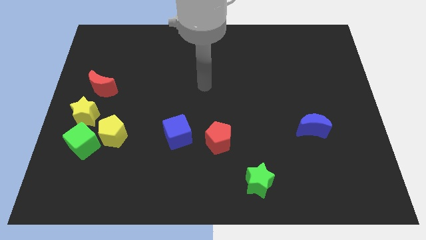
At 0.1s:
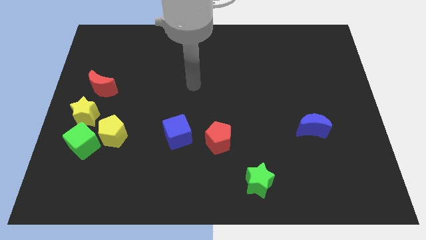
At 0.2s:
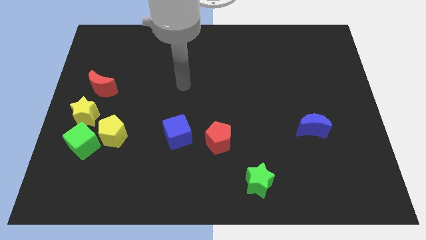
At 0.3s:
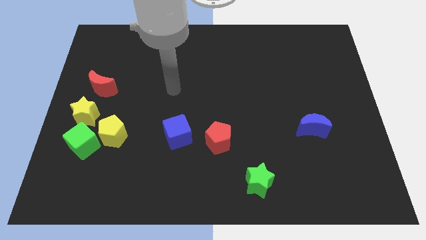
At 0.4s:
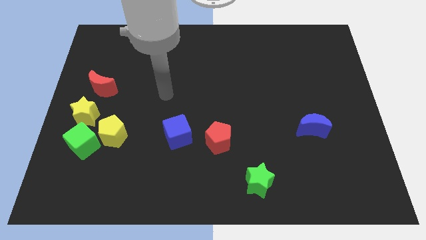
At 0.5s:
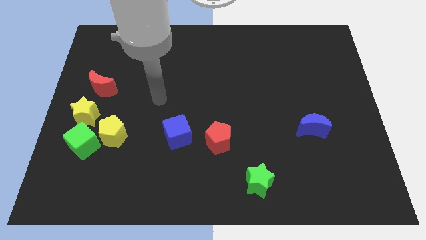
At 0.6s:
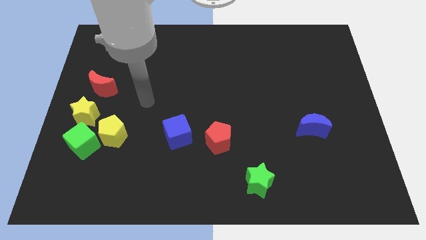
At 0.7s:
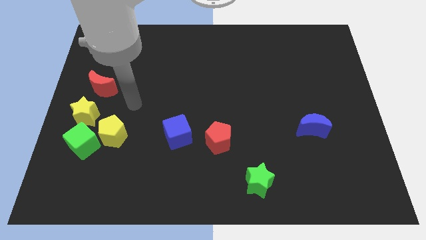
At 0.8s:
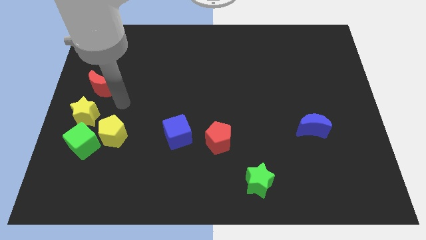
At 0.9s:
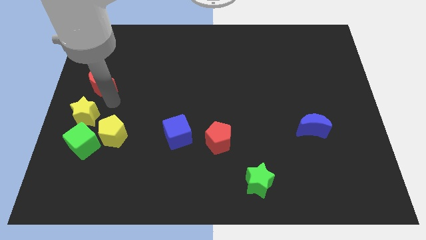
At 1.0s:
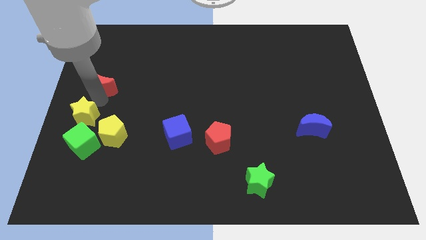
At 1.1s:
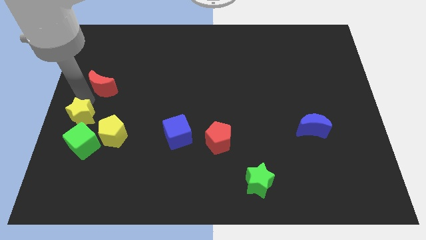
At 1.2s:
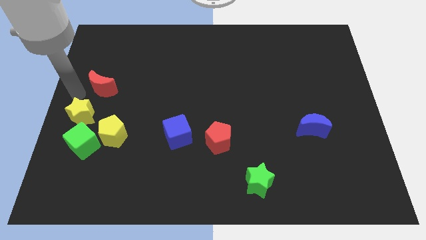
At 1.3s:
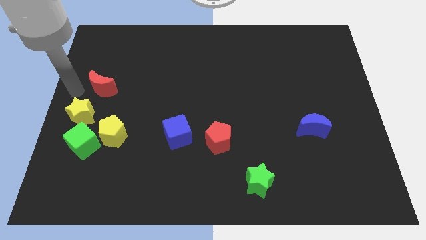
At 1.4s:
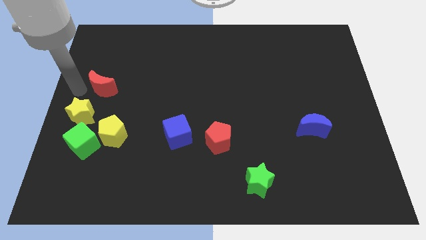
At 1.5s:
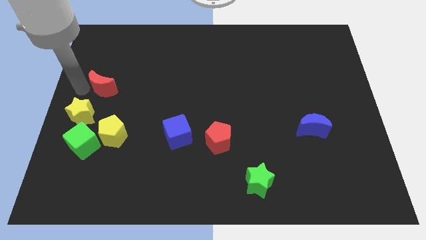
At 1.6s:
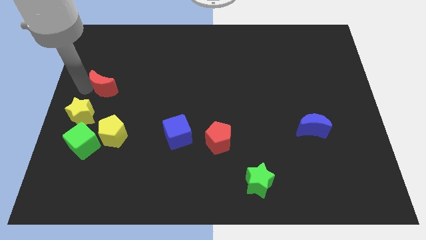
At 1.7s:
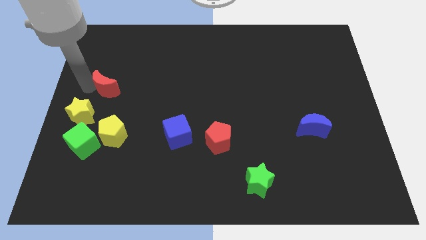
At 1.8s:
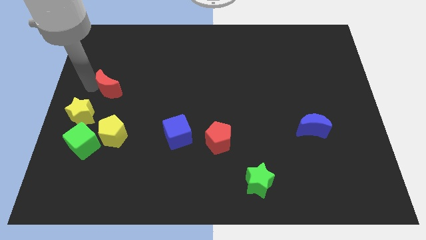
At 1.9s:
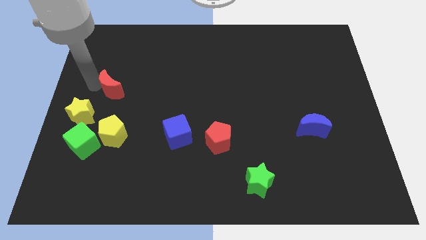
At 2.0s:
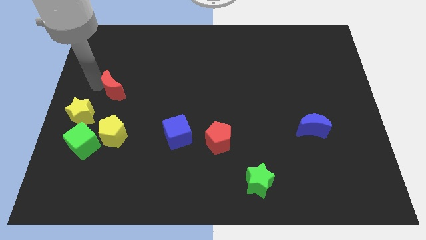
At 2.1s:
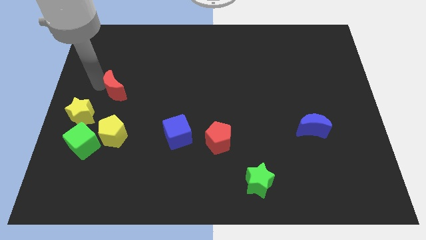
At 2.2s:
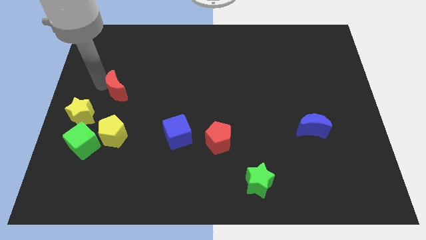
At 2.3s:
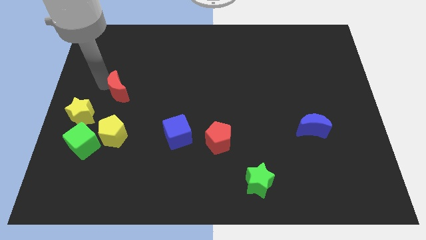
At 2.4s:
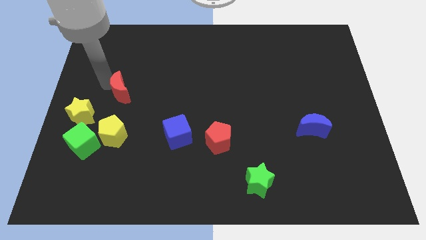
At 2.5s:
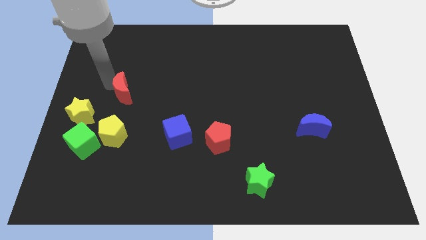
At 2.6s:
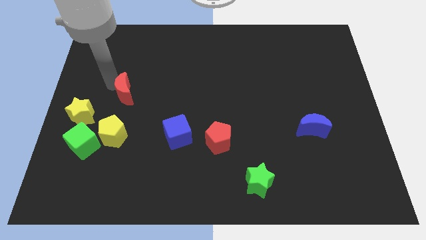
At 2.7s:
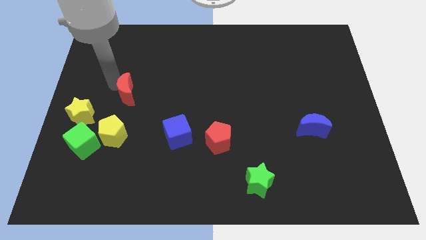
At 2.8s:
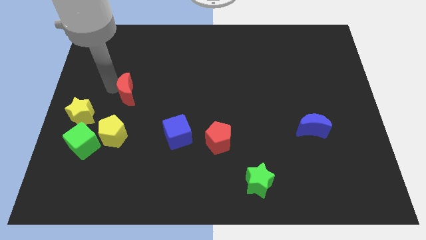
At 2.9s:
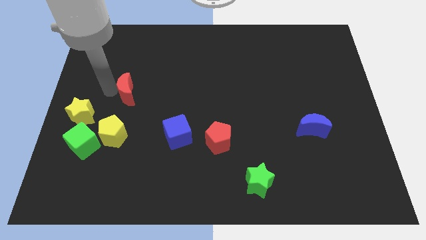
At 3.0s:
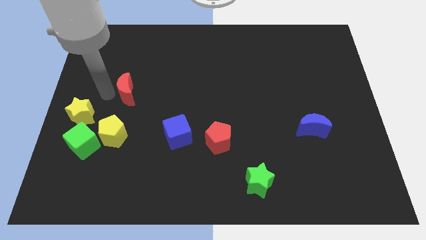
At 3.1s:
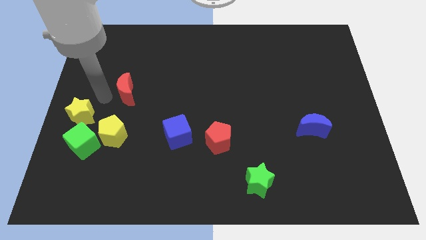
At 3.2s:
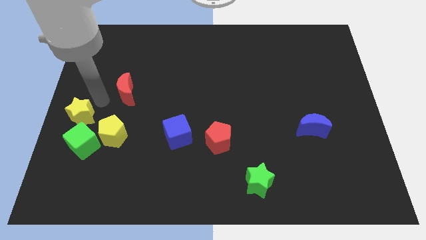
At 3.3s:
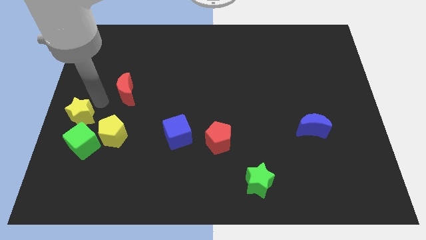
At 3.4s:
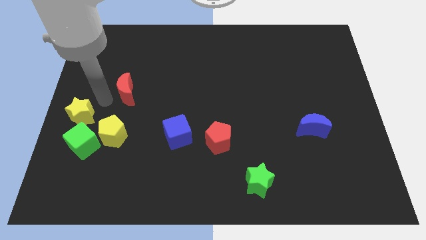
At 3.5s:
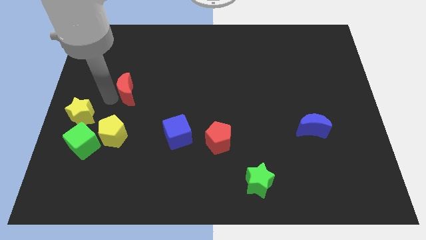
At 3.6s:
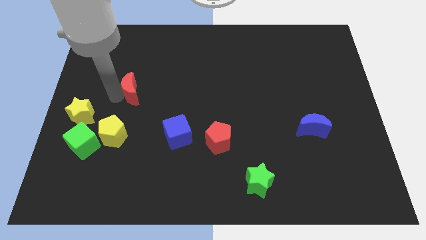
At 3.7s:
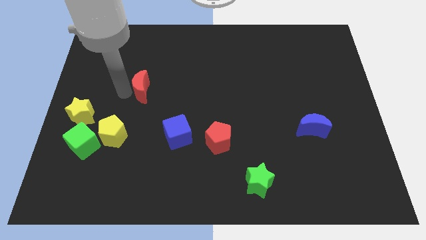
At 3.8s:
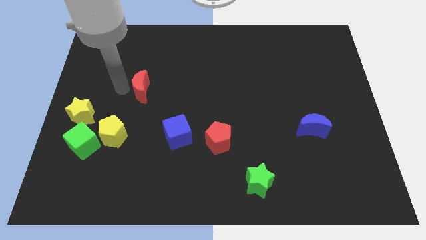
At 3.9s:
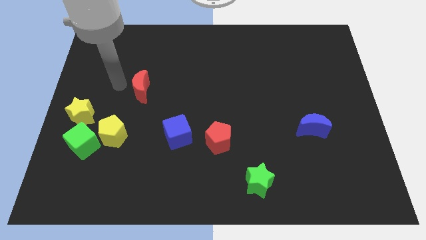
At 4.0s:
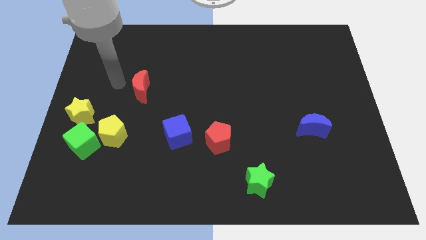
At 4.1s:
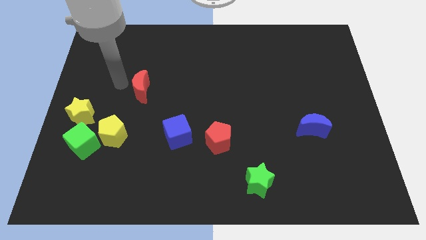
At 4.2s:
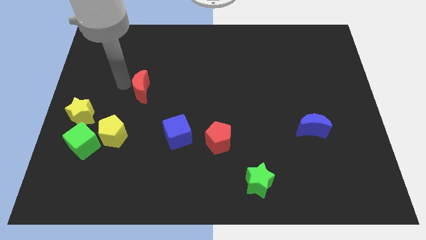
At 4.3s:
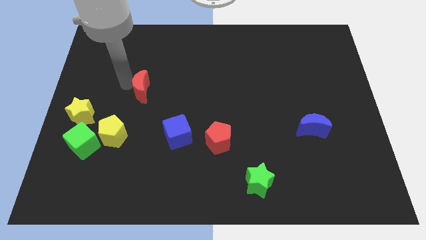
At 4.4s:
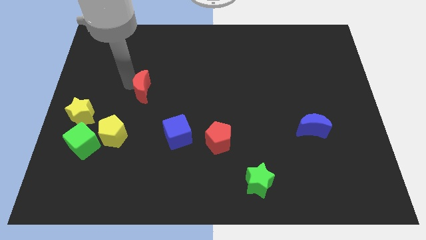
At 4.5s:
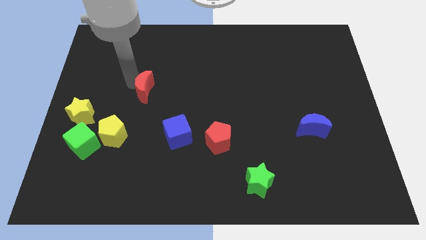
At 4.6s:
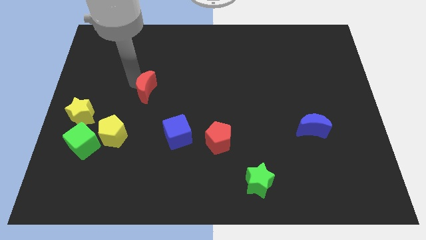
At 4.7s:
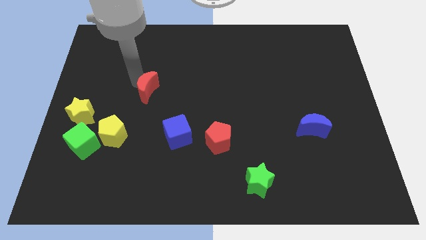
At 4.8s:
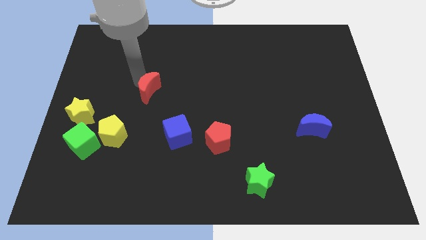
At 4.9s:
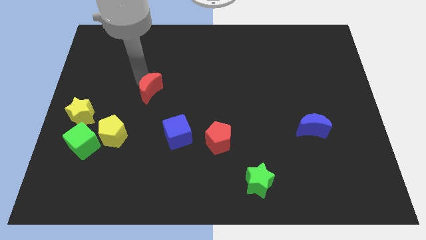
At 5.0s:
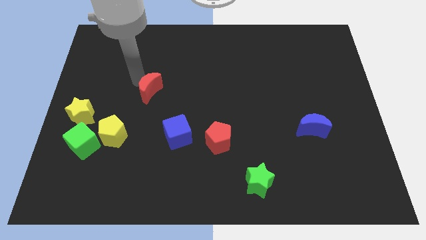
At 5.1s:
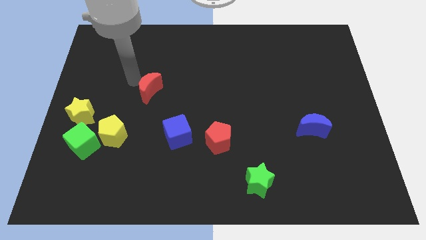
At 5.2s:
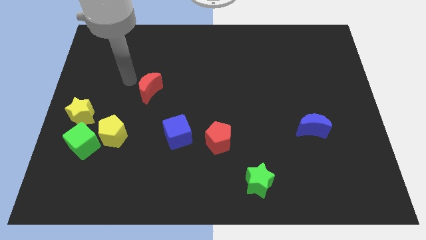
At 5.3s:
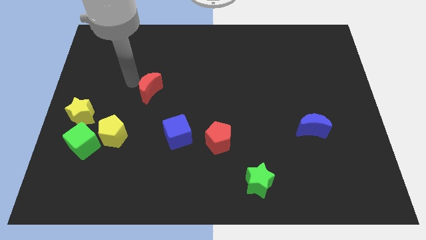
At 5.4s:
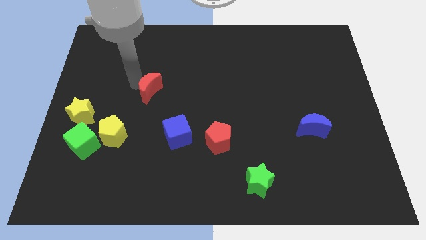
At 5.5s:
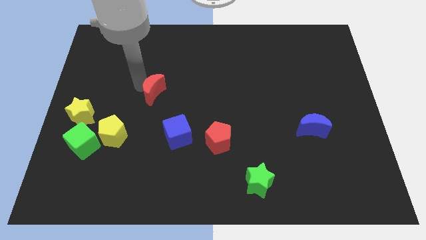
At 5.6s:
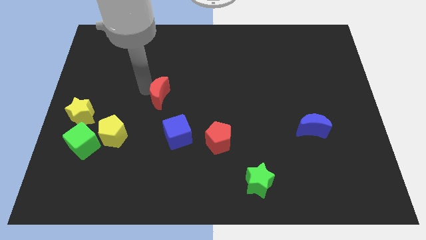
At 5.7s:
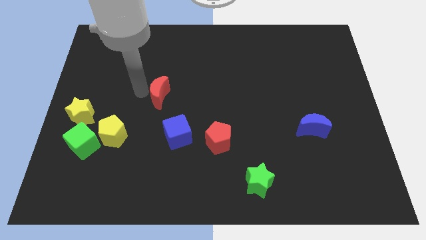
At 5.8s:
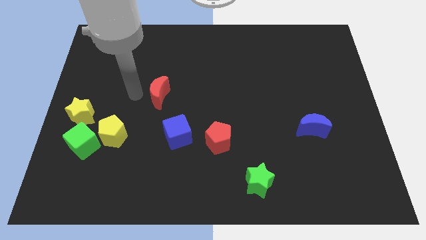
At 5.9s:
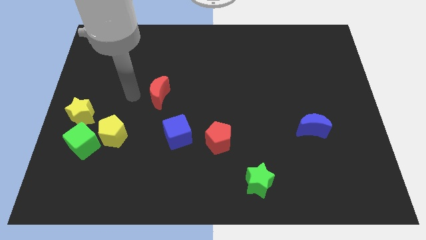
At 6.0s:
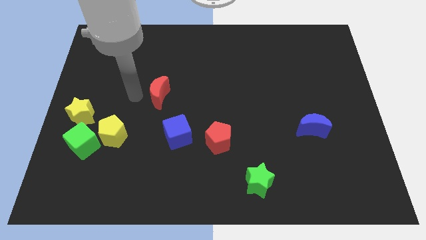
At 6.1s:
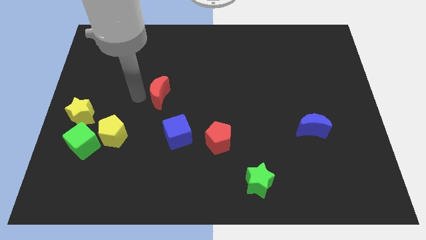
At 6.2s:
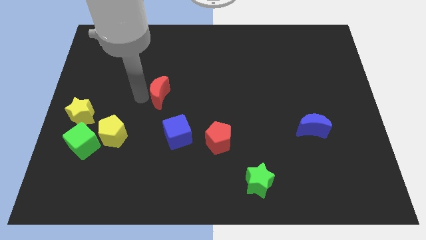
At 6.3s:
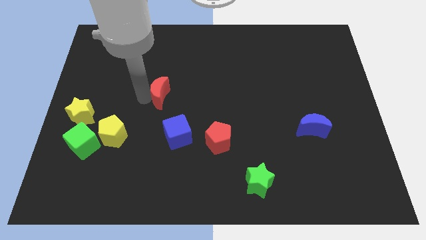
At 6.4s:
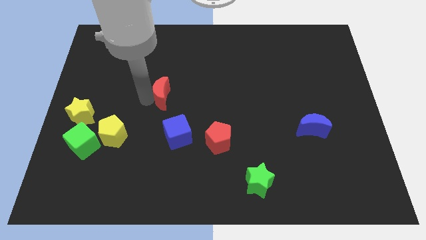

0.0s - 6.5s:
slide the red moon to the center
